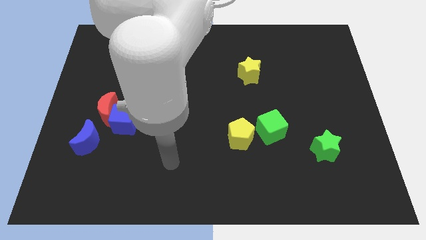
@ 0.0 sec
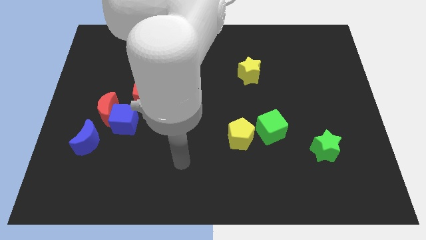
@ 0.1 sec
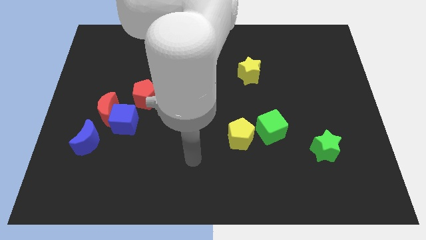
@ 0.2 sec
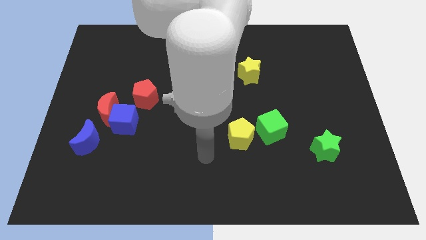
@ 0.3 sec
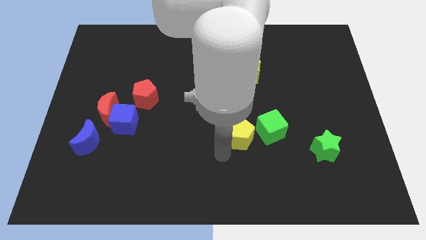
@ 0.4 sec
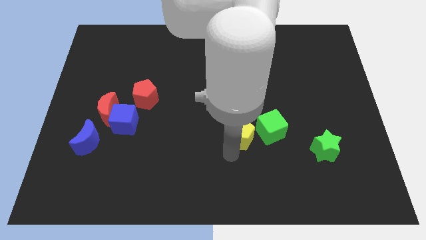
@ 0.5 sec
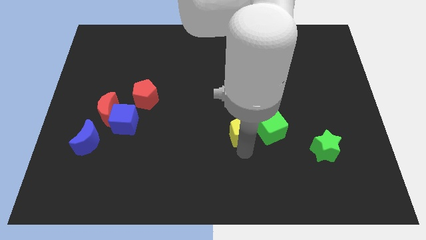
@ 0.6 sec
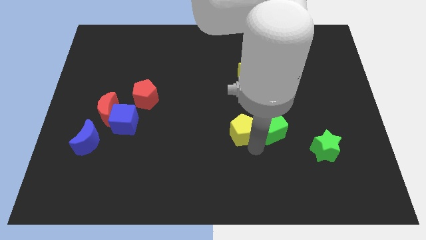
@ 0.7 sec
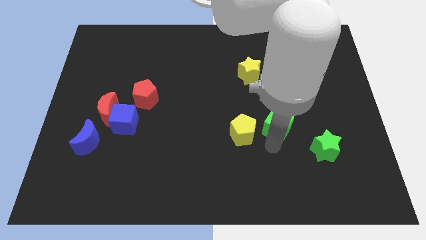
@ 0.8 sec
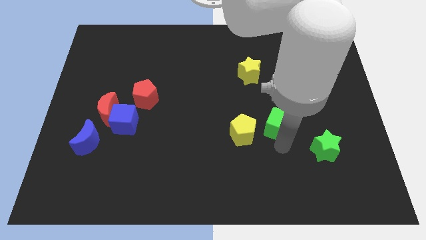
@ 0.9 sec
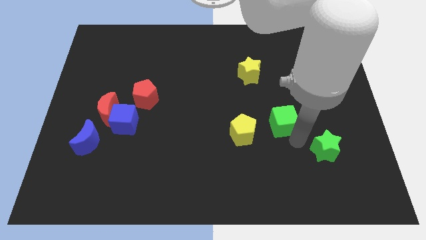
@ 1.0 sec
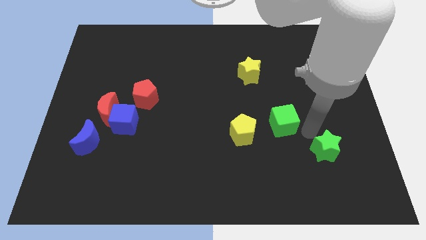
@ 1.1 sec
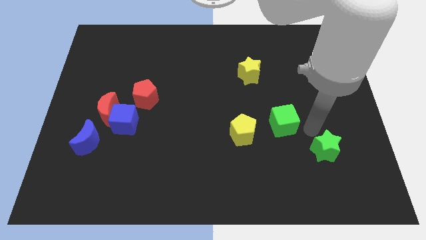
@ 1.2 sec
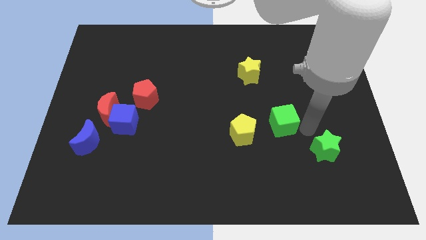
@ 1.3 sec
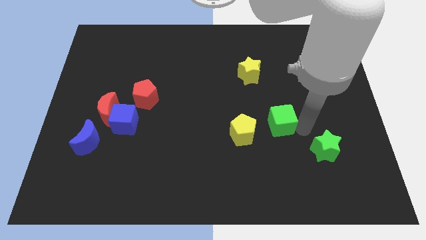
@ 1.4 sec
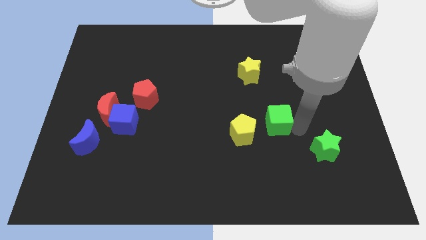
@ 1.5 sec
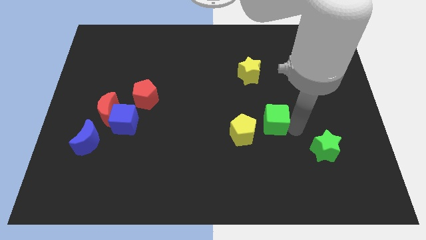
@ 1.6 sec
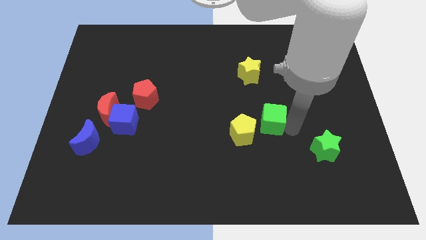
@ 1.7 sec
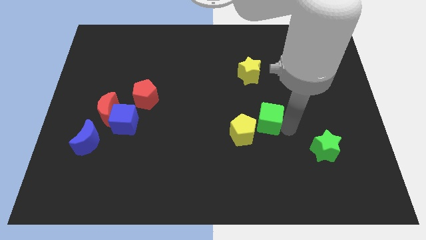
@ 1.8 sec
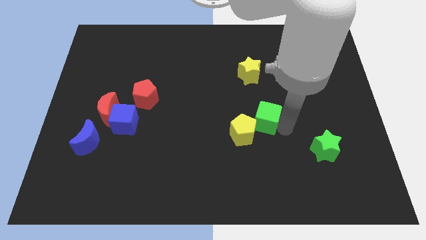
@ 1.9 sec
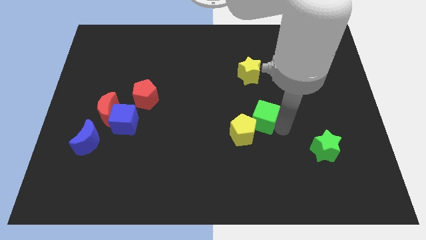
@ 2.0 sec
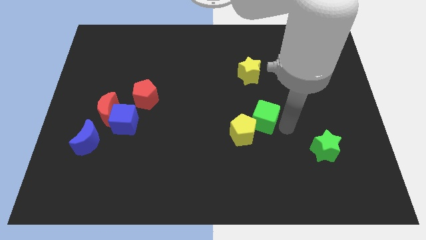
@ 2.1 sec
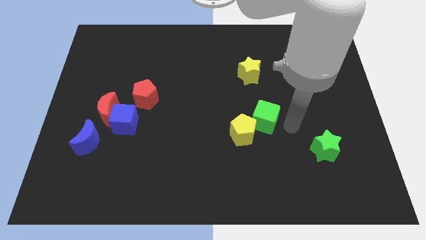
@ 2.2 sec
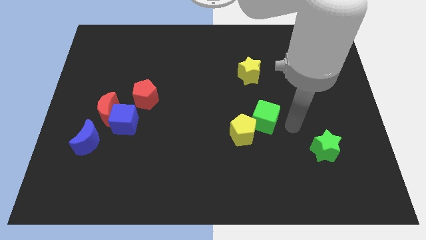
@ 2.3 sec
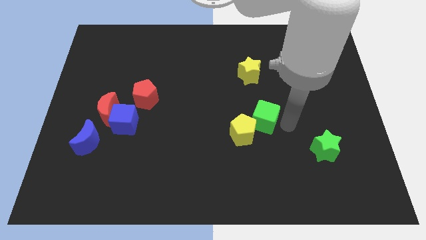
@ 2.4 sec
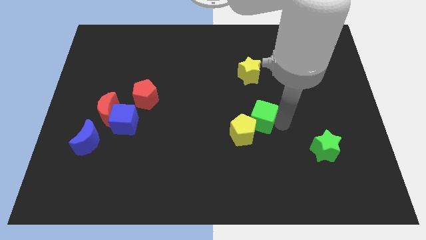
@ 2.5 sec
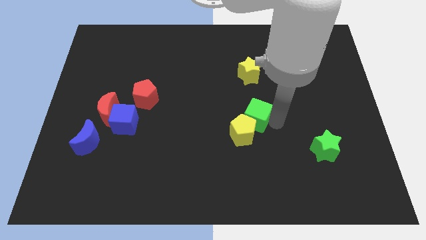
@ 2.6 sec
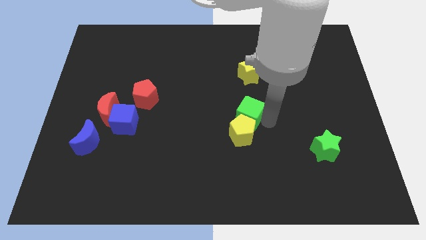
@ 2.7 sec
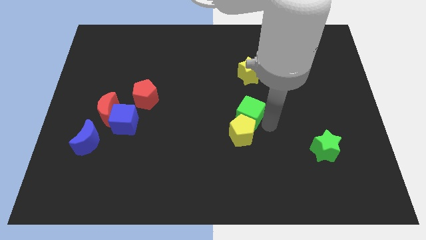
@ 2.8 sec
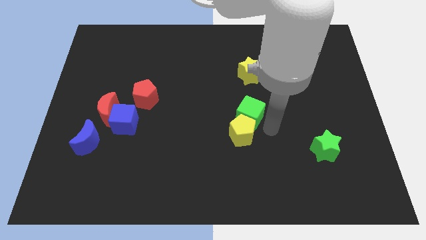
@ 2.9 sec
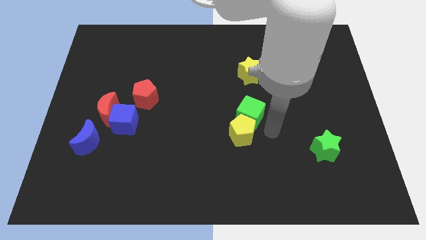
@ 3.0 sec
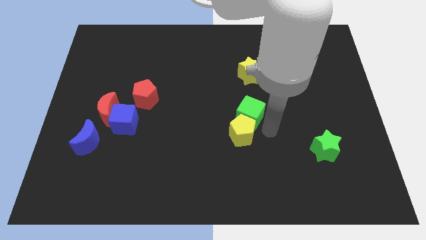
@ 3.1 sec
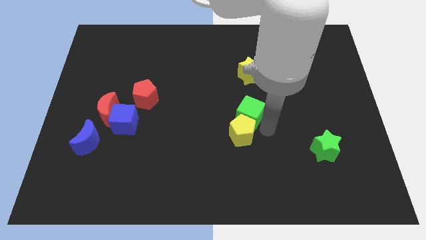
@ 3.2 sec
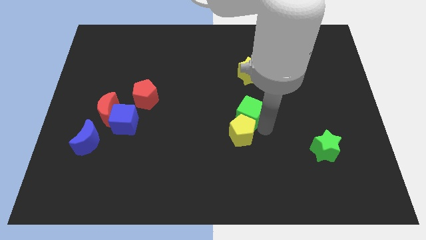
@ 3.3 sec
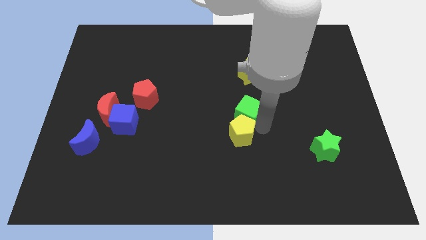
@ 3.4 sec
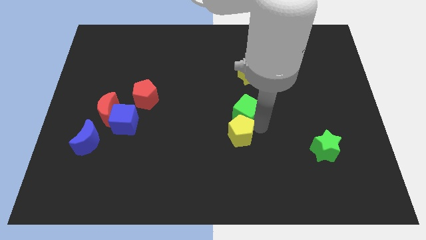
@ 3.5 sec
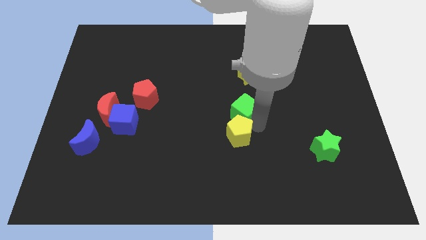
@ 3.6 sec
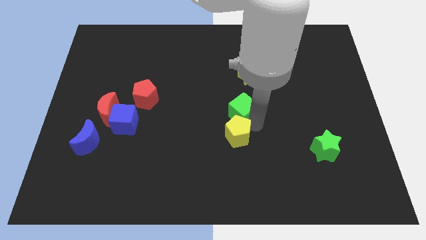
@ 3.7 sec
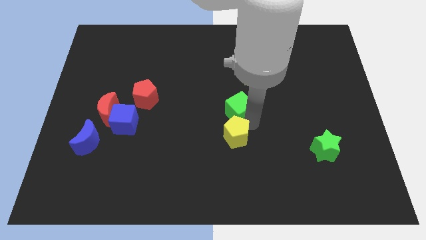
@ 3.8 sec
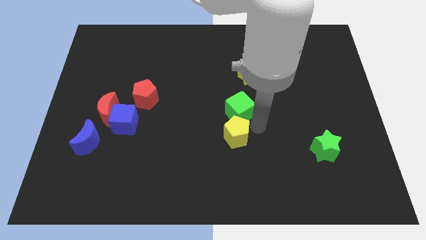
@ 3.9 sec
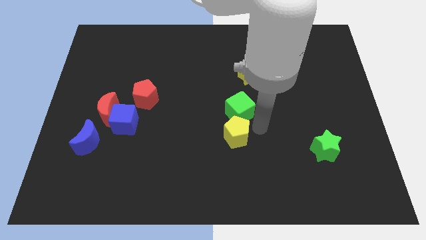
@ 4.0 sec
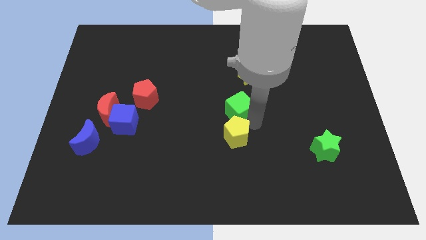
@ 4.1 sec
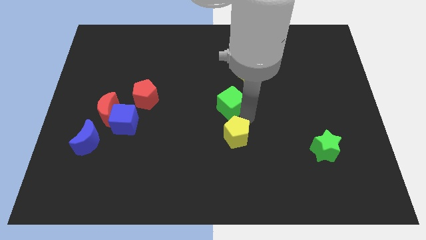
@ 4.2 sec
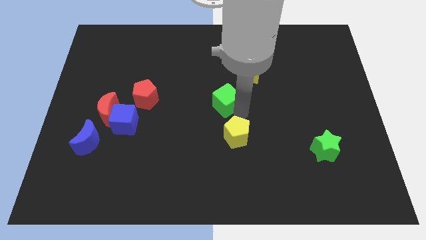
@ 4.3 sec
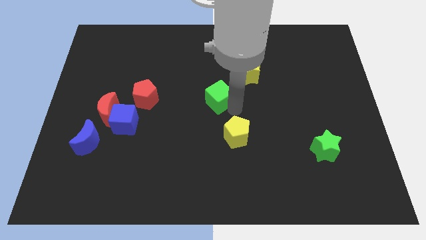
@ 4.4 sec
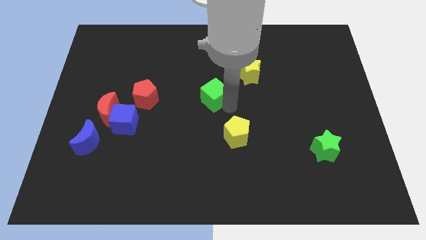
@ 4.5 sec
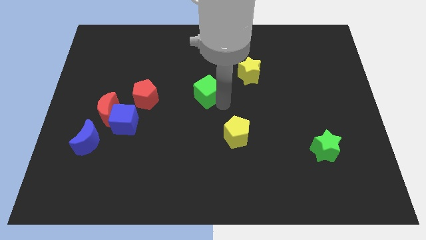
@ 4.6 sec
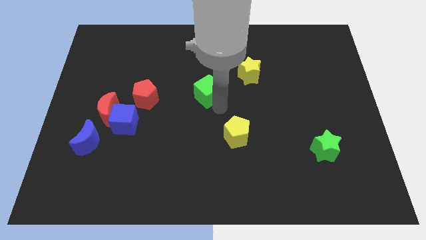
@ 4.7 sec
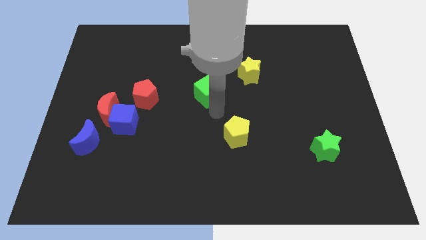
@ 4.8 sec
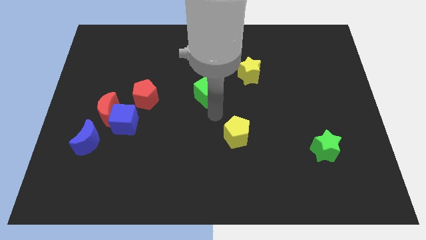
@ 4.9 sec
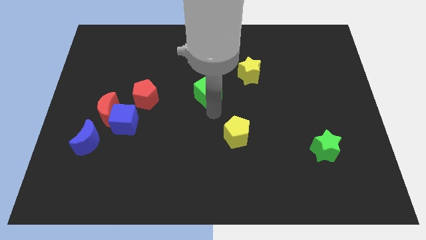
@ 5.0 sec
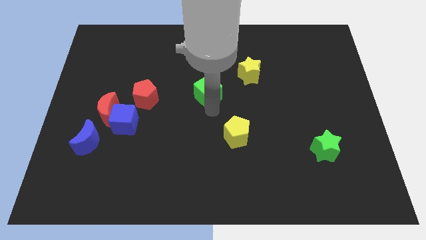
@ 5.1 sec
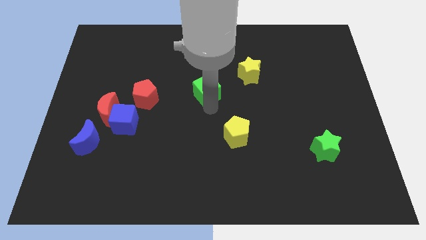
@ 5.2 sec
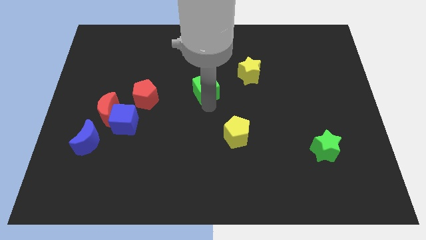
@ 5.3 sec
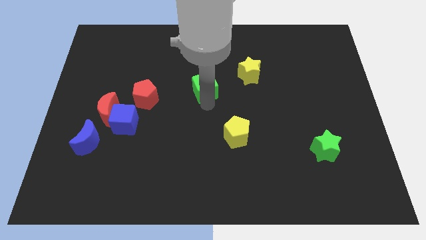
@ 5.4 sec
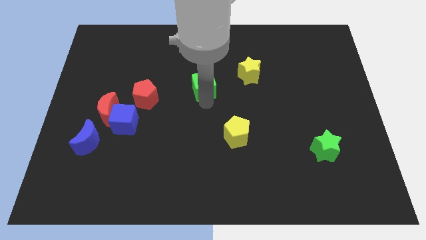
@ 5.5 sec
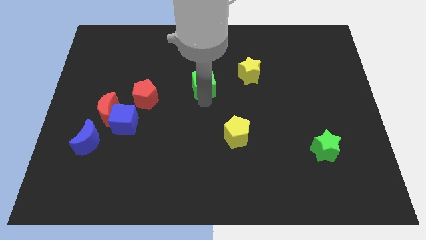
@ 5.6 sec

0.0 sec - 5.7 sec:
move the green cube up and left

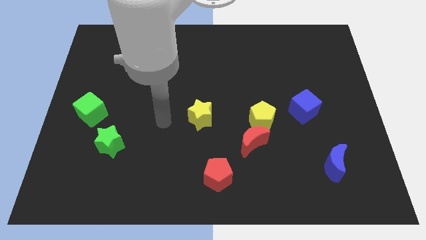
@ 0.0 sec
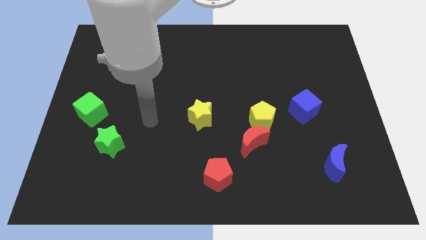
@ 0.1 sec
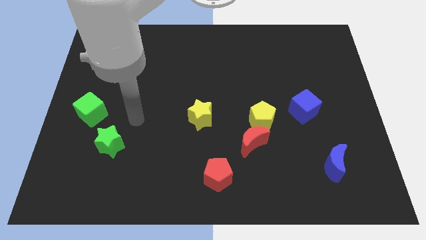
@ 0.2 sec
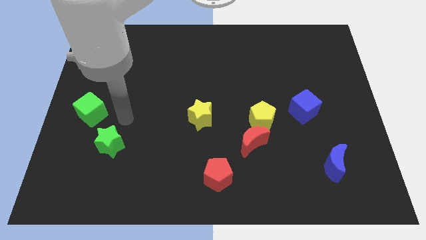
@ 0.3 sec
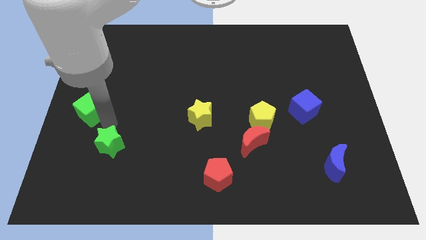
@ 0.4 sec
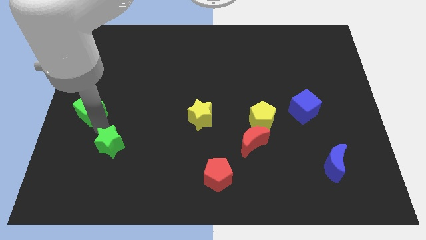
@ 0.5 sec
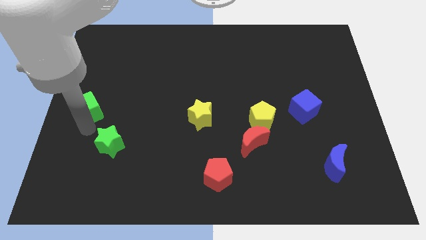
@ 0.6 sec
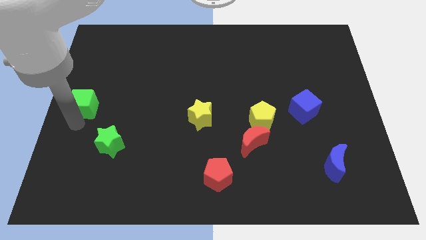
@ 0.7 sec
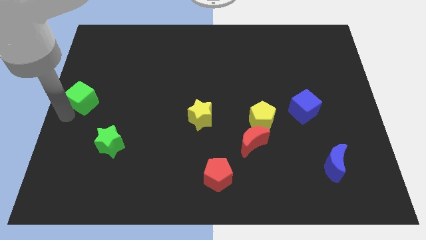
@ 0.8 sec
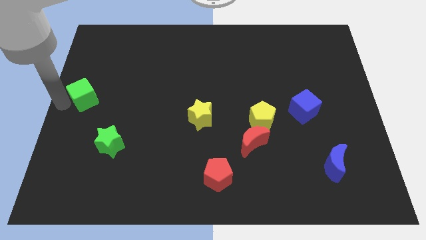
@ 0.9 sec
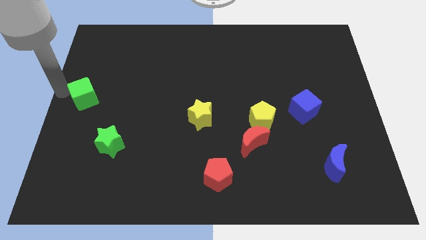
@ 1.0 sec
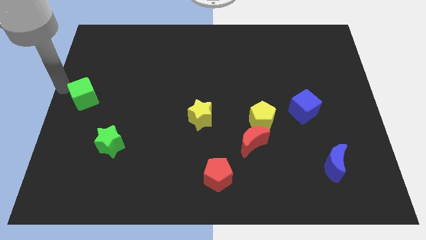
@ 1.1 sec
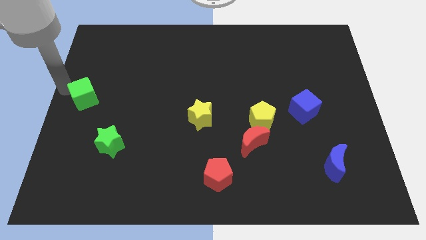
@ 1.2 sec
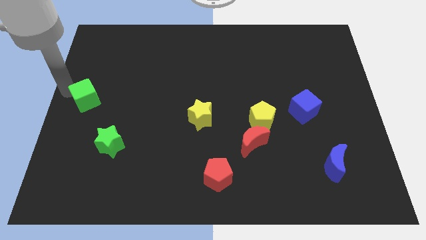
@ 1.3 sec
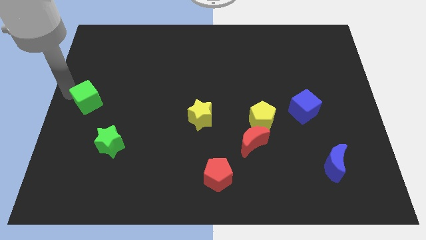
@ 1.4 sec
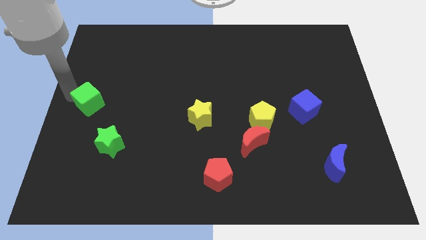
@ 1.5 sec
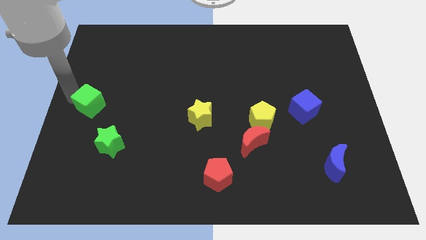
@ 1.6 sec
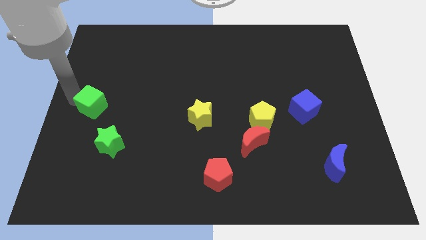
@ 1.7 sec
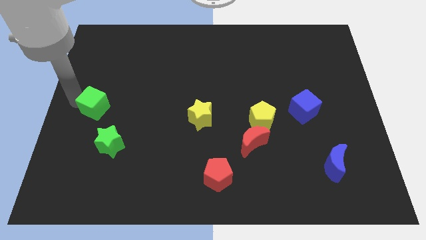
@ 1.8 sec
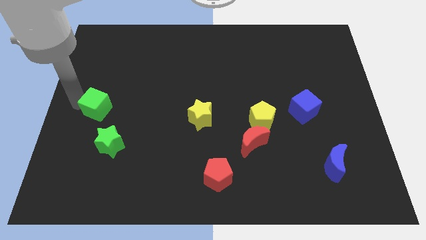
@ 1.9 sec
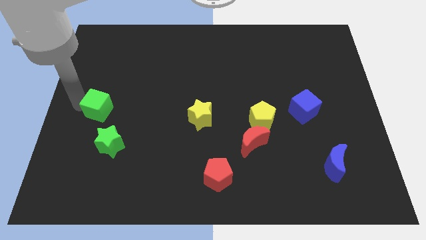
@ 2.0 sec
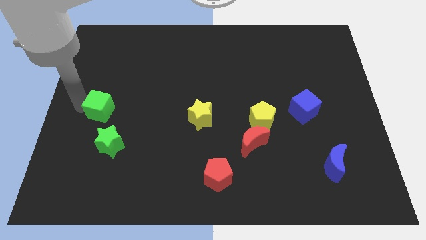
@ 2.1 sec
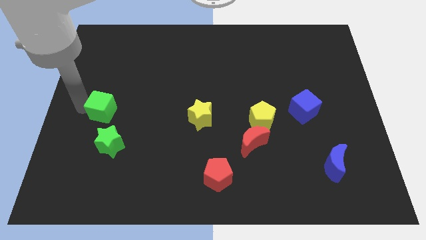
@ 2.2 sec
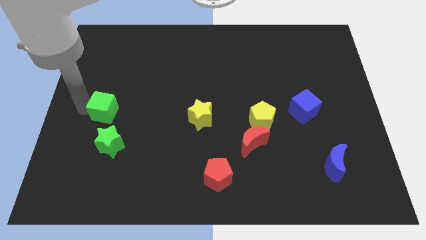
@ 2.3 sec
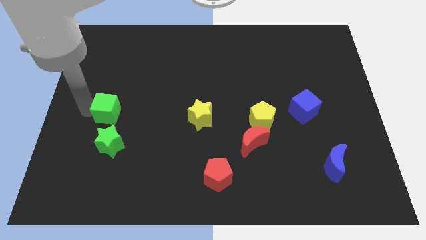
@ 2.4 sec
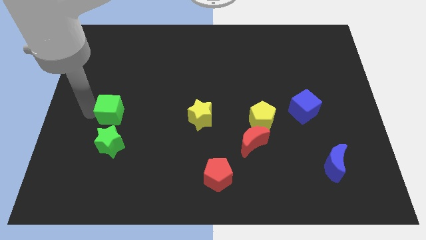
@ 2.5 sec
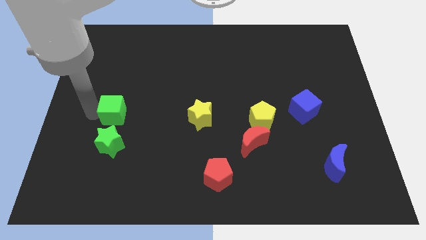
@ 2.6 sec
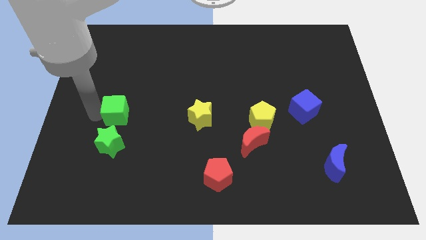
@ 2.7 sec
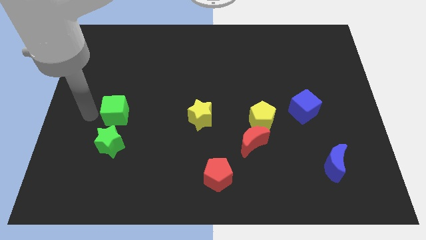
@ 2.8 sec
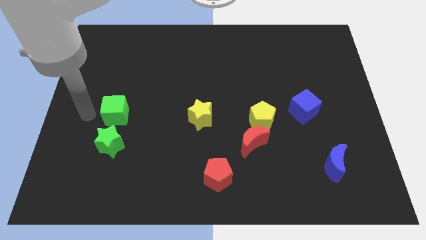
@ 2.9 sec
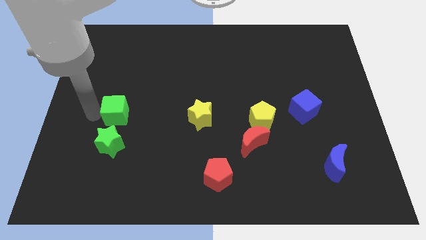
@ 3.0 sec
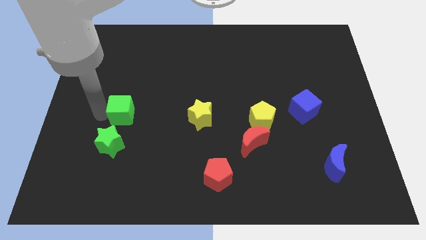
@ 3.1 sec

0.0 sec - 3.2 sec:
move the green cube to the right a little bit
